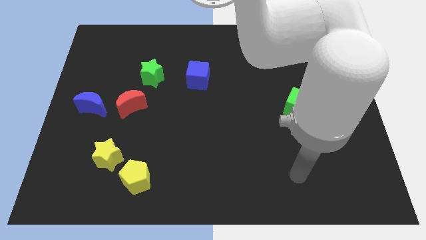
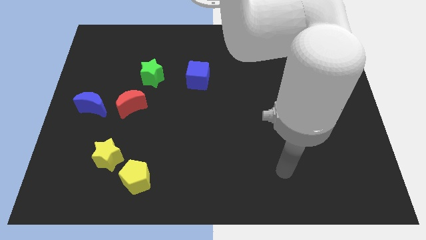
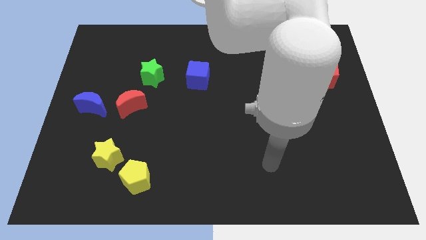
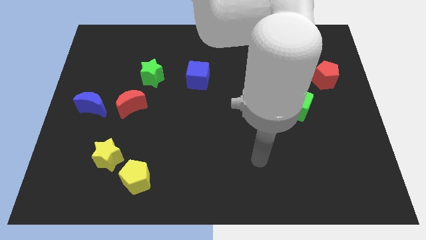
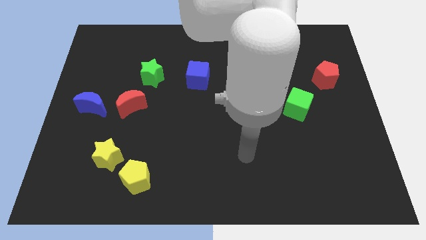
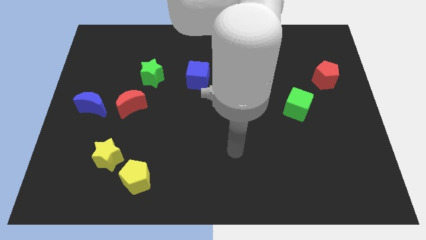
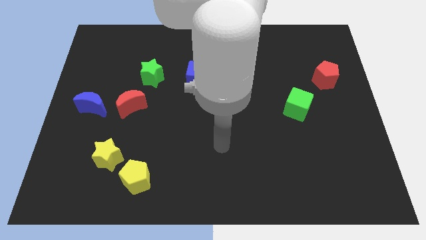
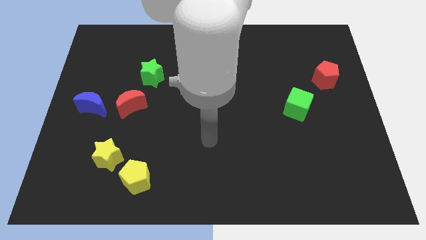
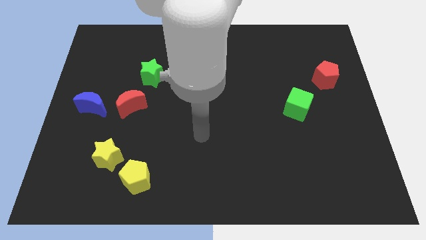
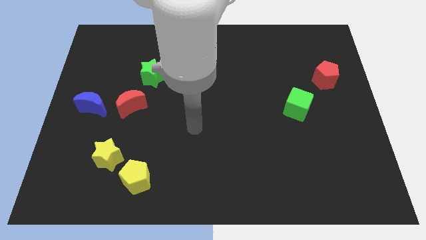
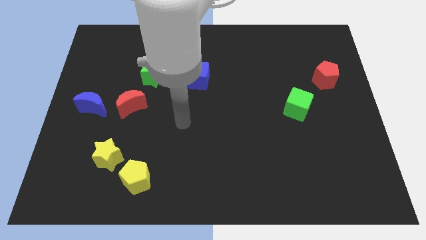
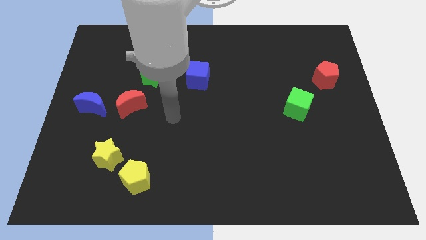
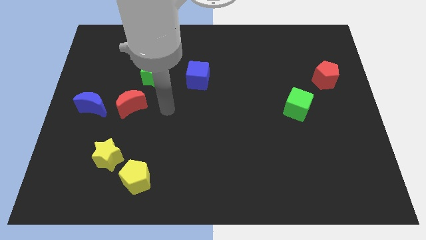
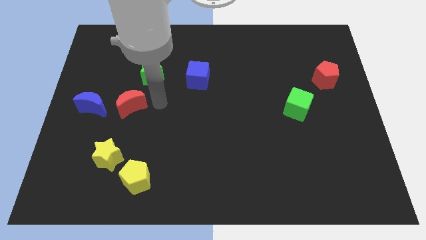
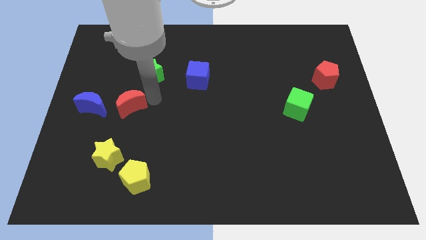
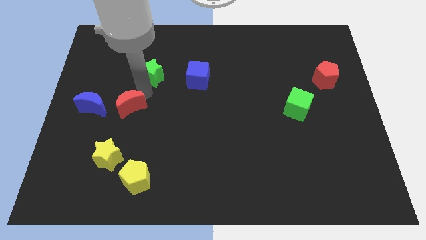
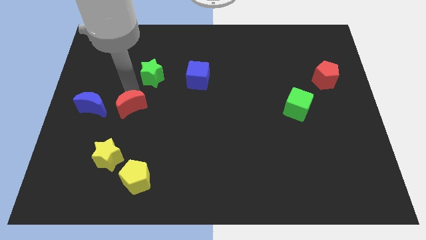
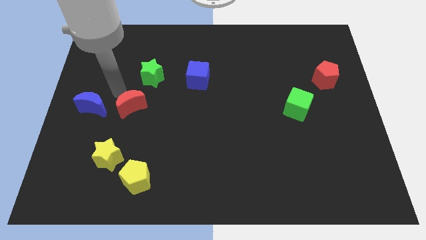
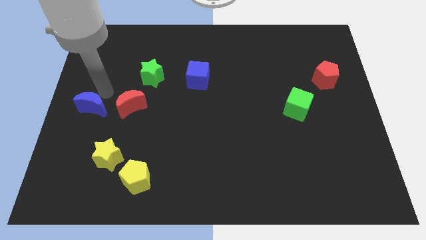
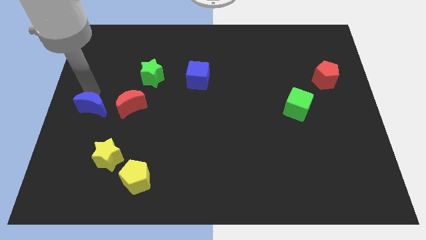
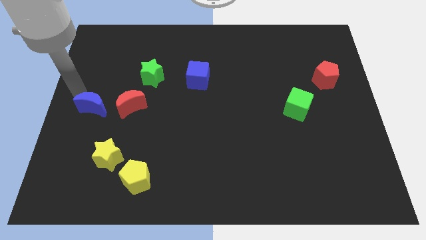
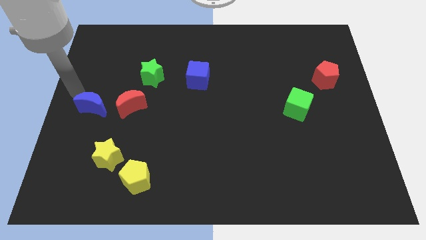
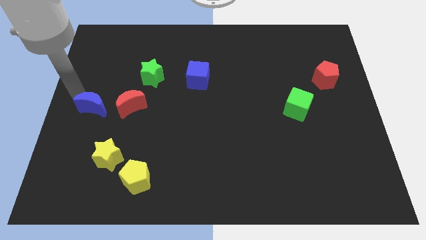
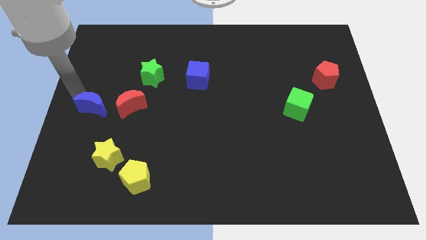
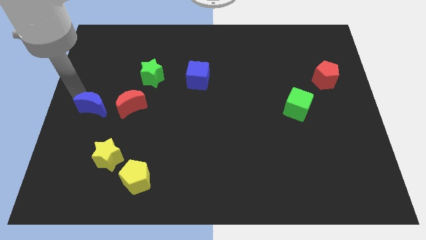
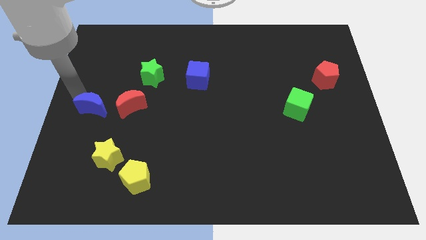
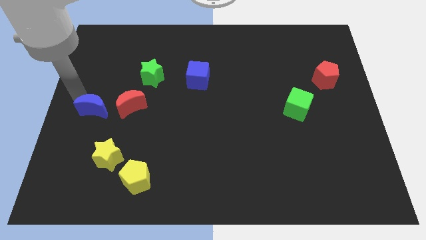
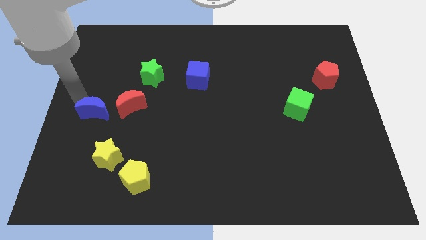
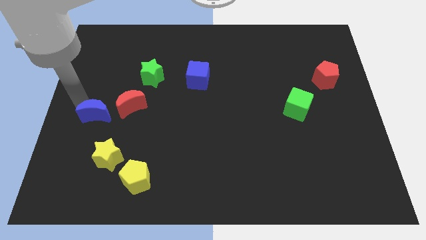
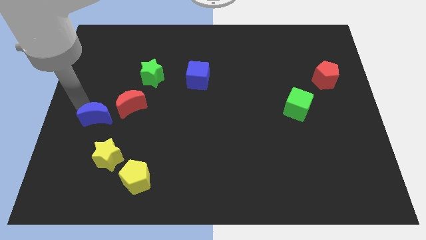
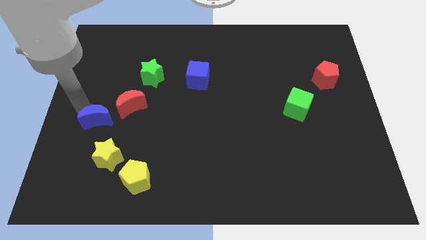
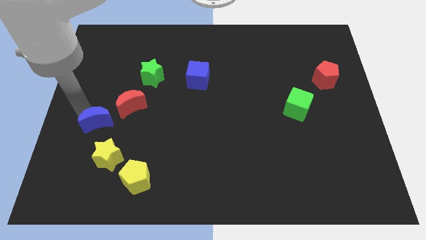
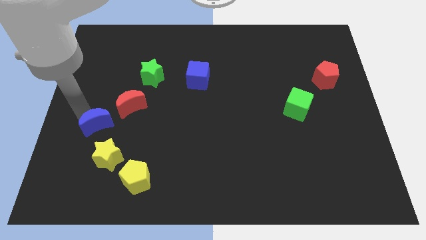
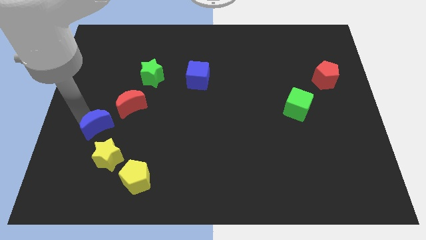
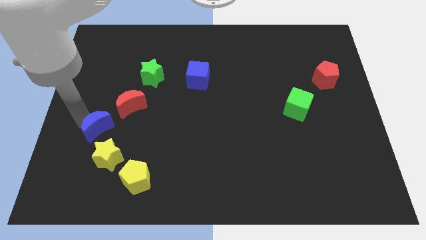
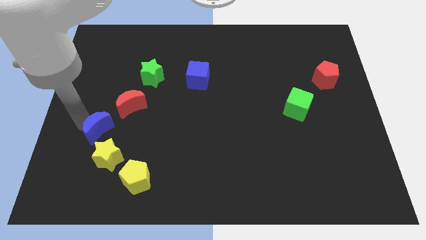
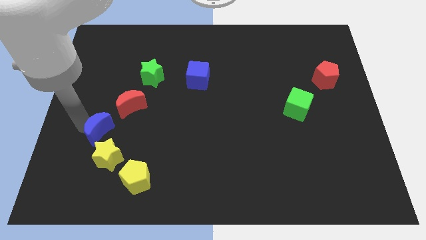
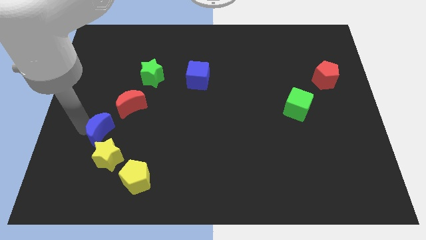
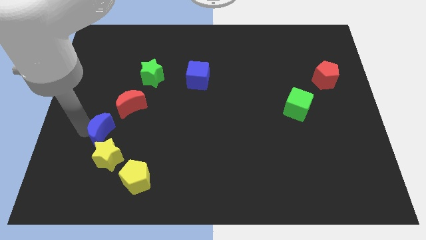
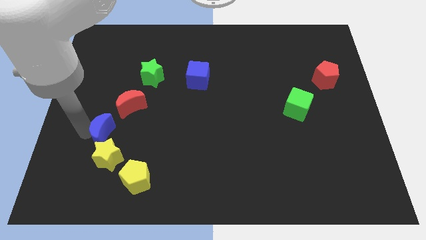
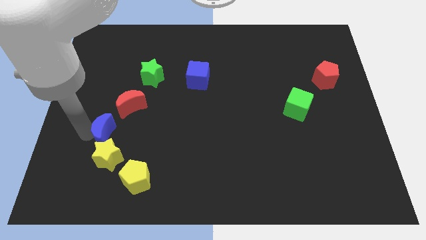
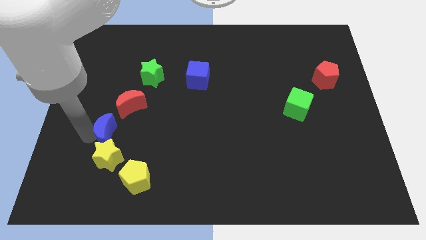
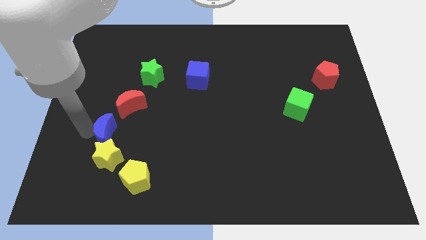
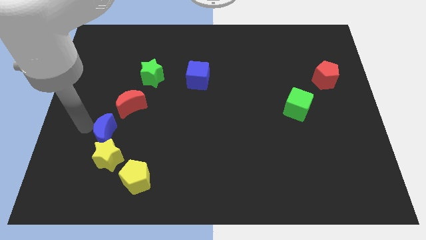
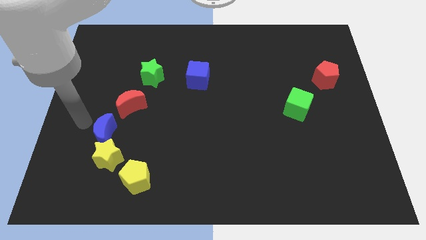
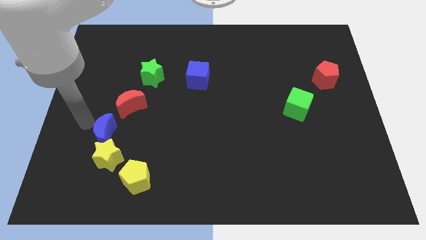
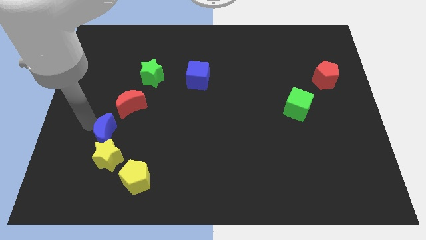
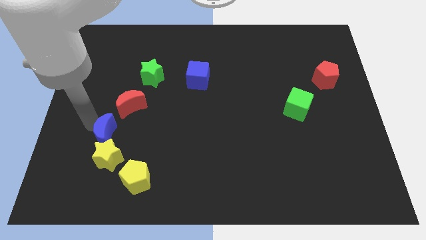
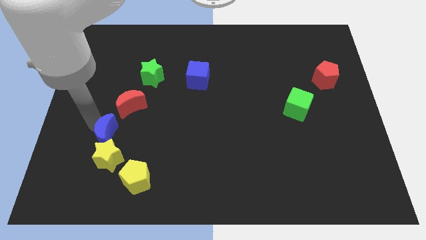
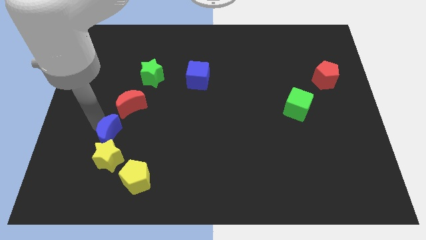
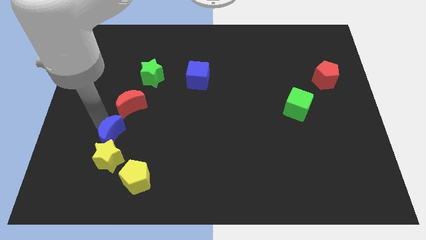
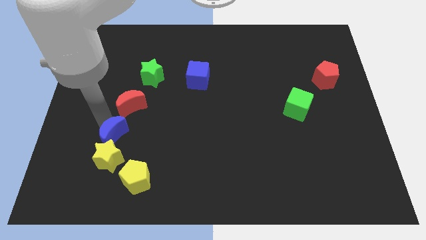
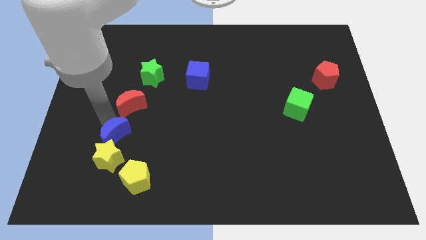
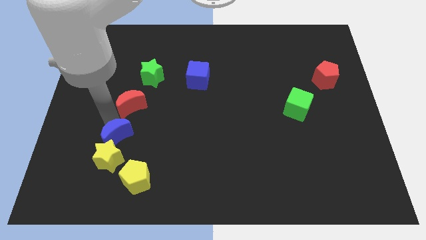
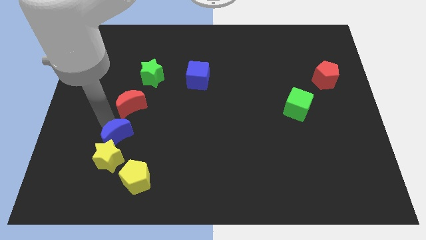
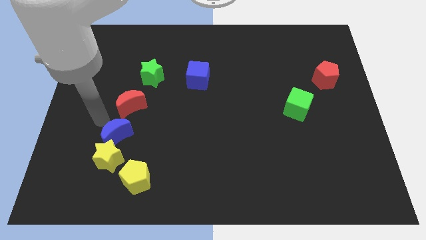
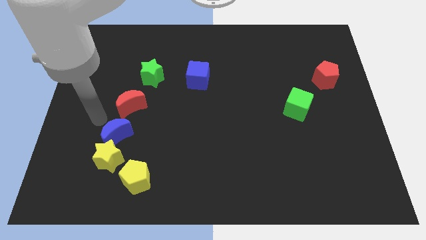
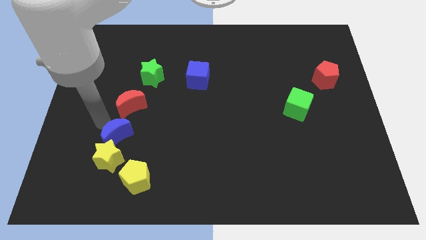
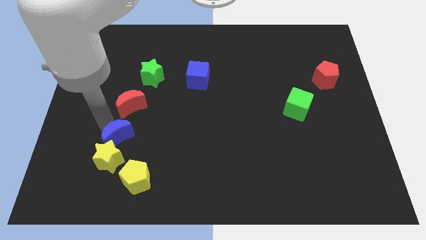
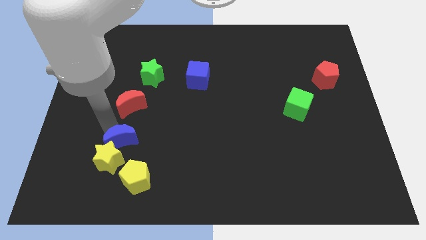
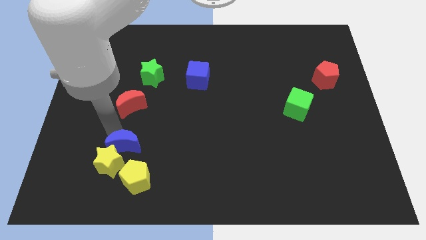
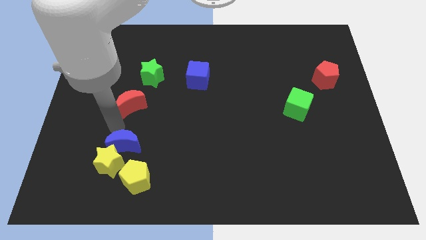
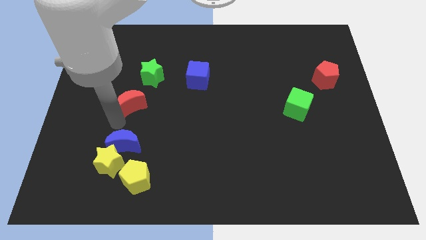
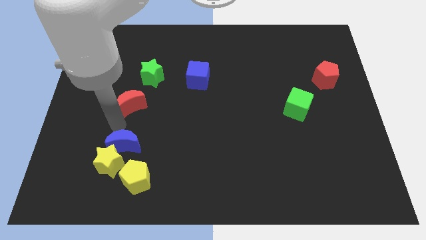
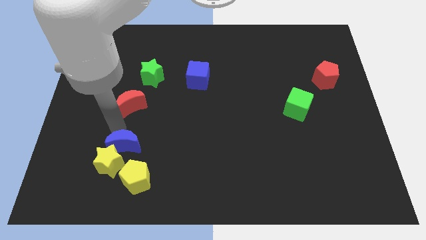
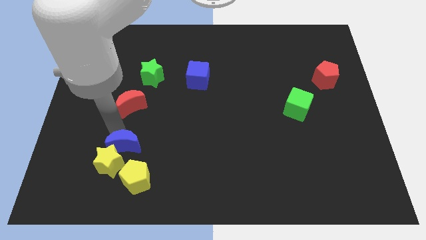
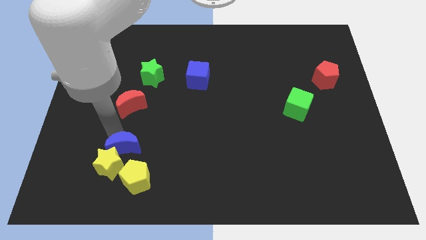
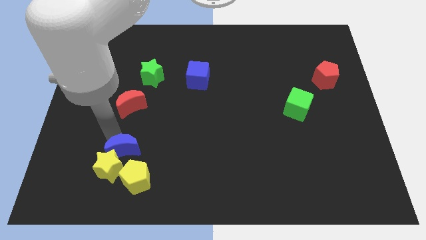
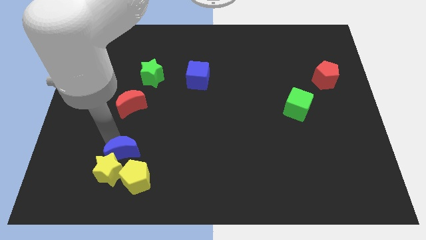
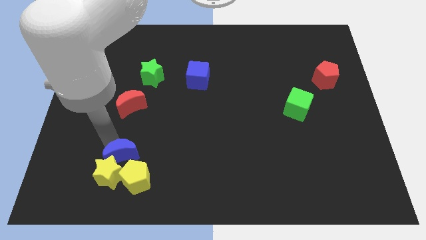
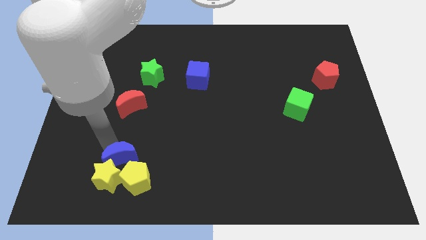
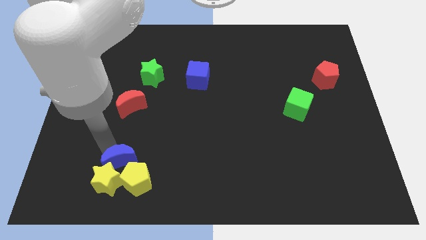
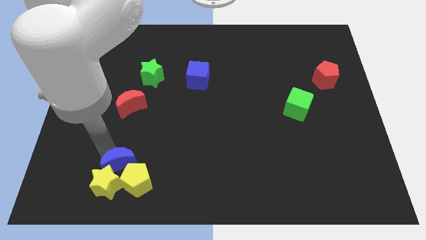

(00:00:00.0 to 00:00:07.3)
push the blue moon next to the yellow pentagon
